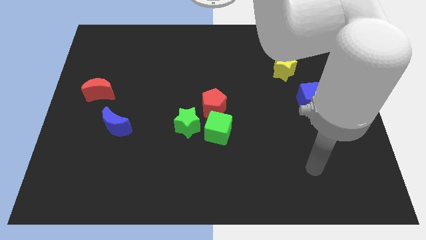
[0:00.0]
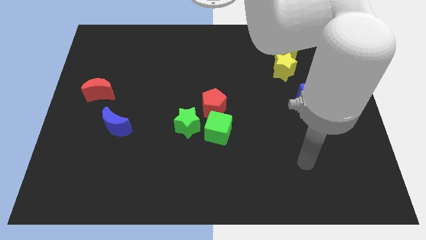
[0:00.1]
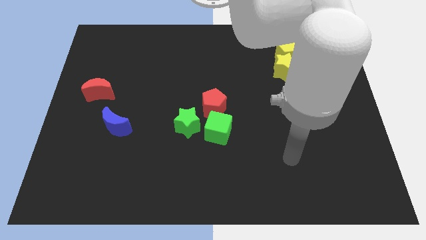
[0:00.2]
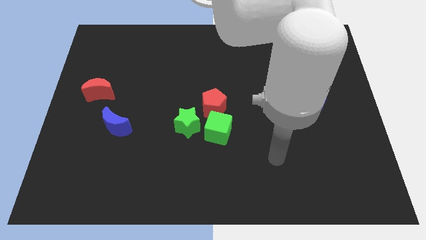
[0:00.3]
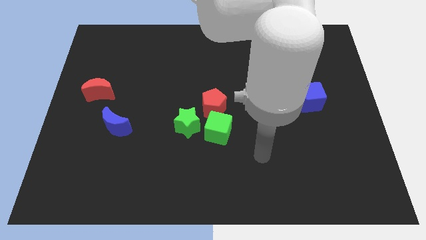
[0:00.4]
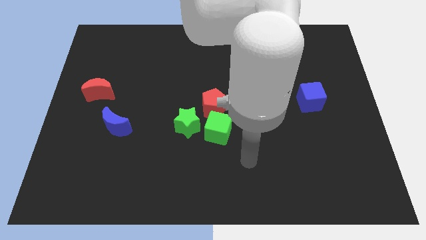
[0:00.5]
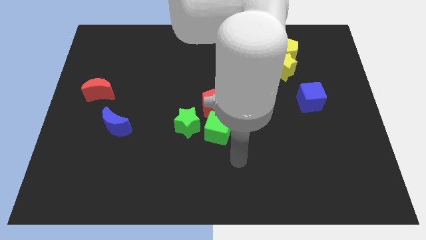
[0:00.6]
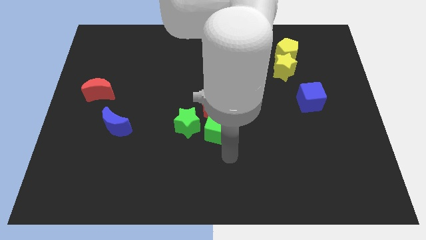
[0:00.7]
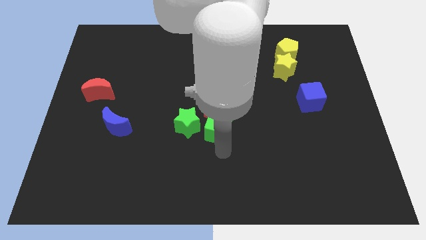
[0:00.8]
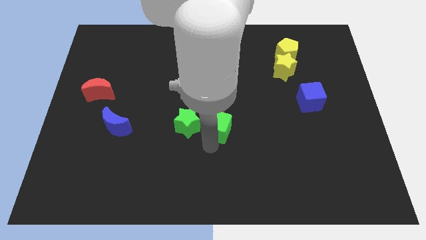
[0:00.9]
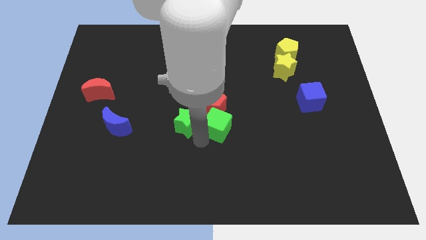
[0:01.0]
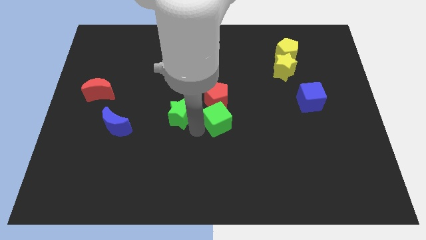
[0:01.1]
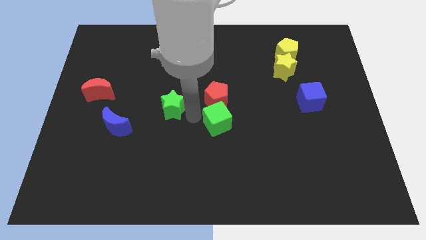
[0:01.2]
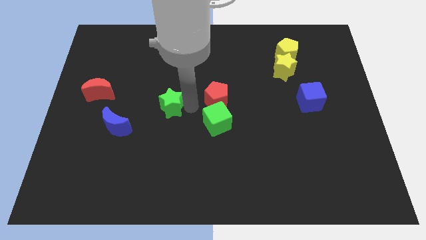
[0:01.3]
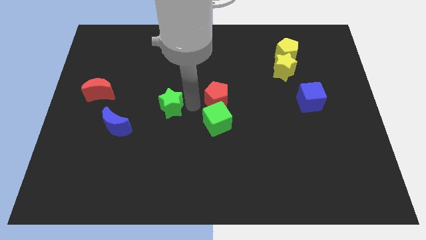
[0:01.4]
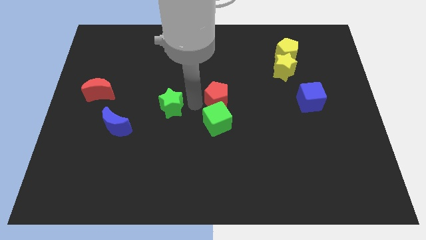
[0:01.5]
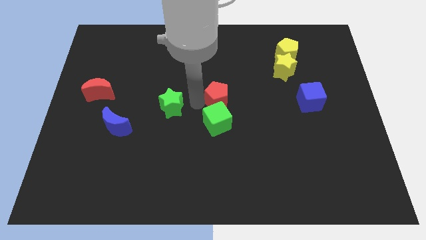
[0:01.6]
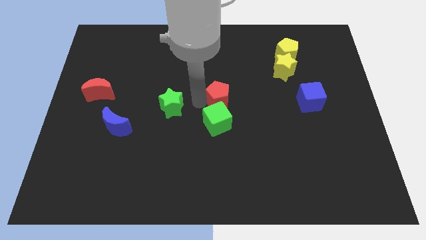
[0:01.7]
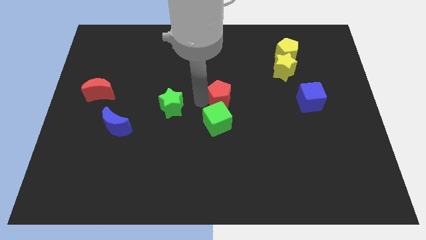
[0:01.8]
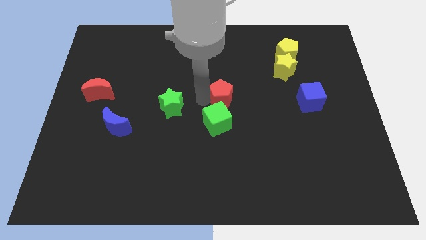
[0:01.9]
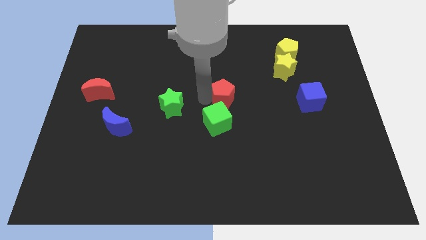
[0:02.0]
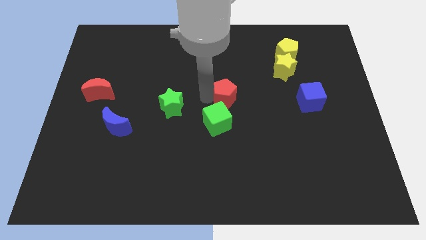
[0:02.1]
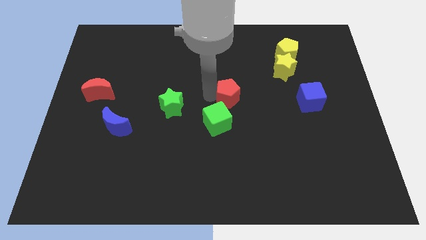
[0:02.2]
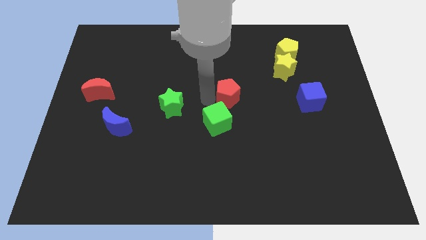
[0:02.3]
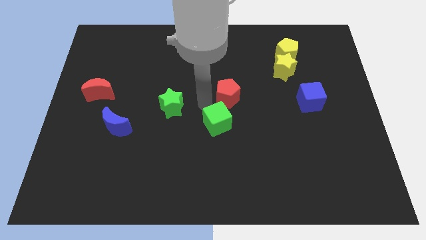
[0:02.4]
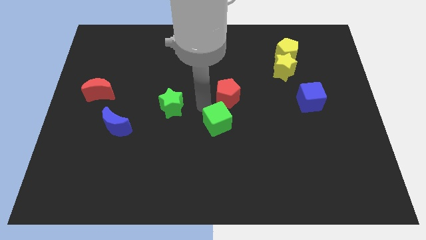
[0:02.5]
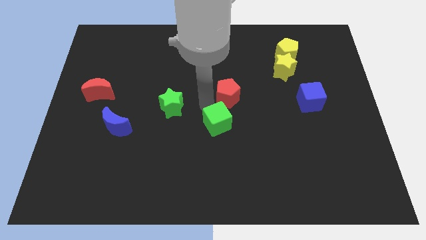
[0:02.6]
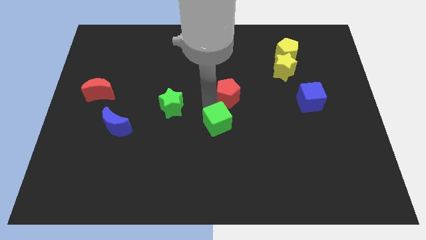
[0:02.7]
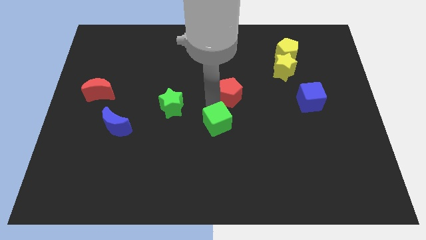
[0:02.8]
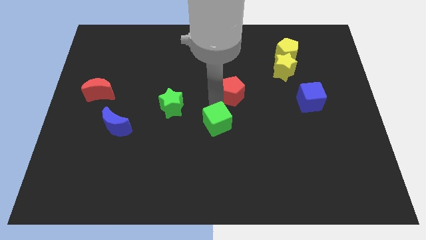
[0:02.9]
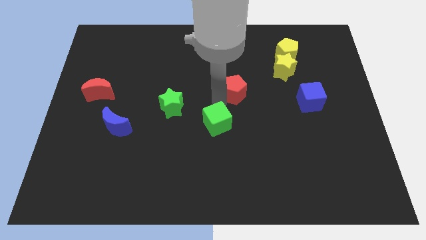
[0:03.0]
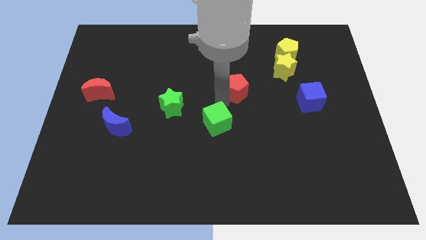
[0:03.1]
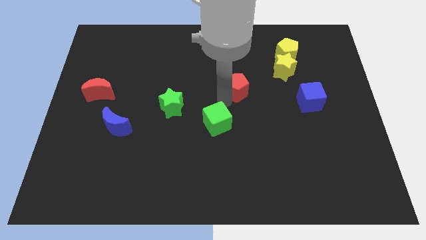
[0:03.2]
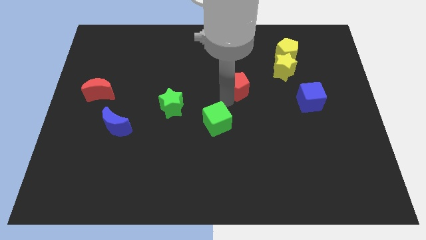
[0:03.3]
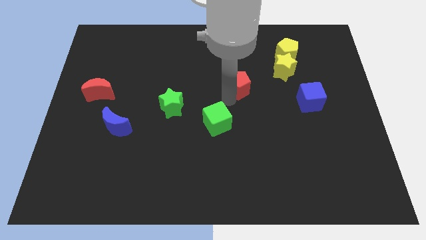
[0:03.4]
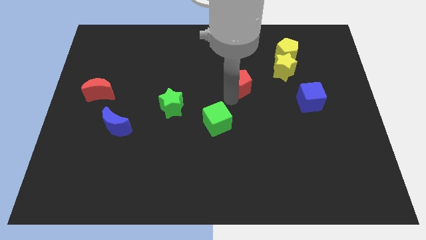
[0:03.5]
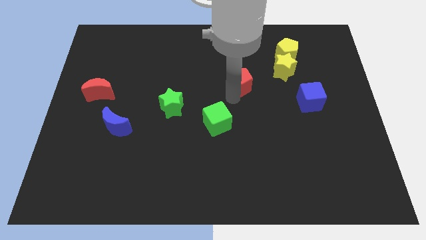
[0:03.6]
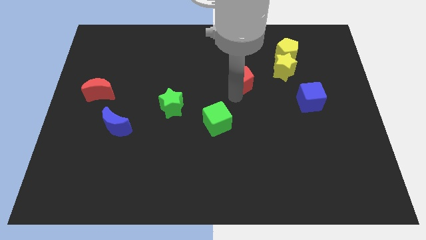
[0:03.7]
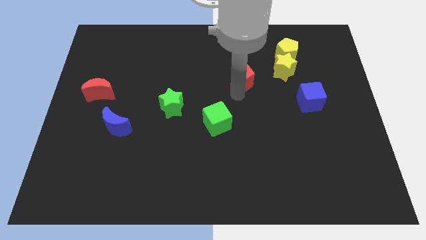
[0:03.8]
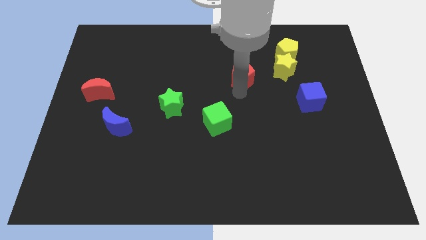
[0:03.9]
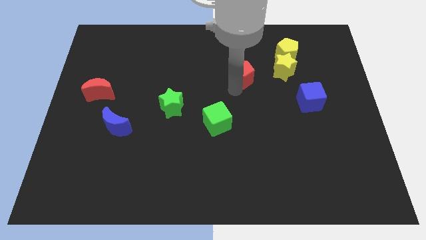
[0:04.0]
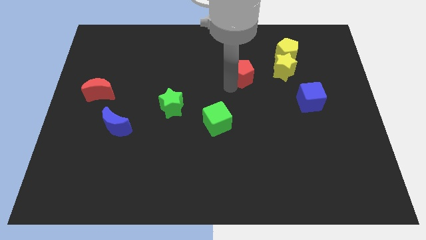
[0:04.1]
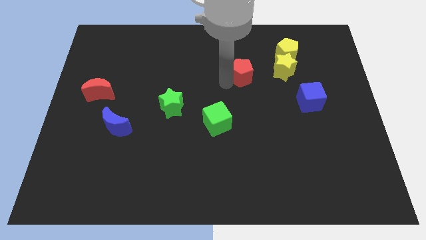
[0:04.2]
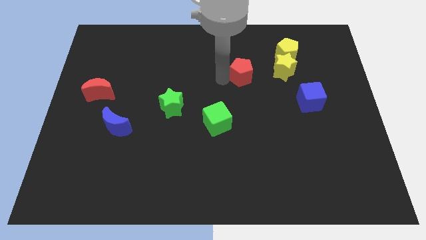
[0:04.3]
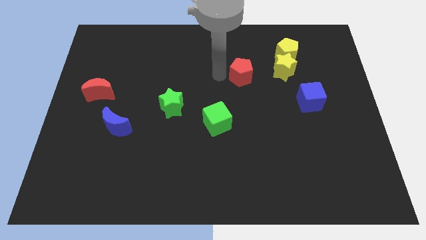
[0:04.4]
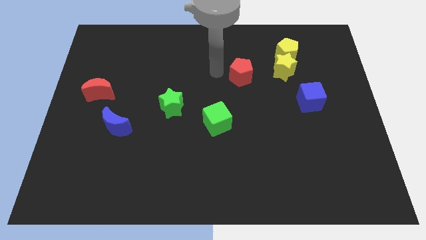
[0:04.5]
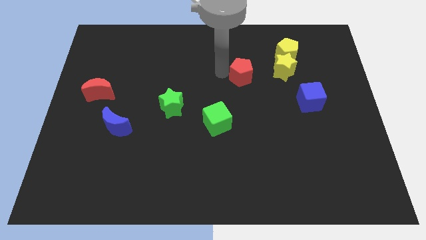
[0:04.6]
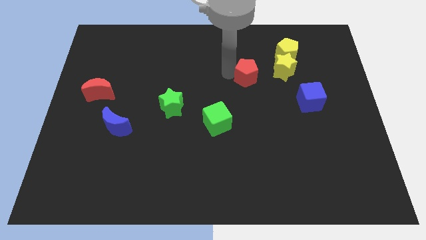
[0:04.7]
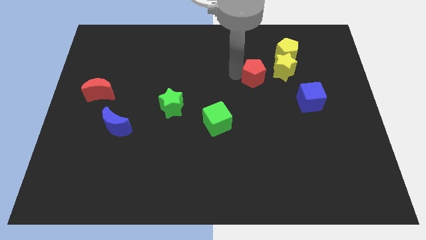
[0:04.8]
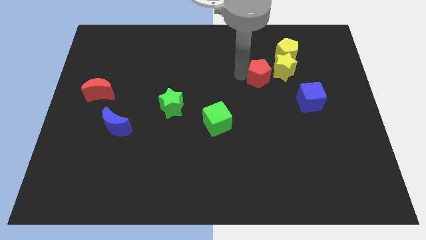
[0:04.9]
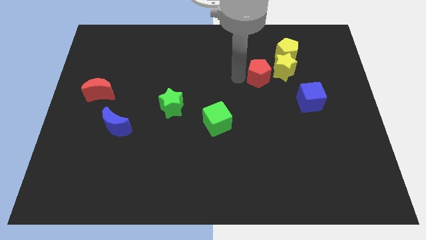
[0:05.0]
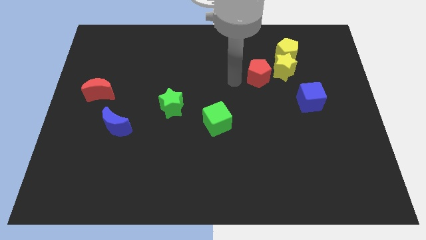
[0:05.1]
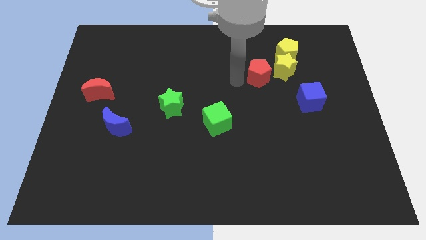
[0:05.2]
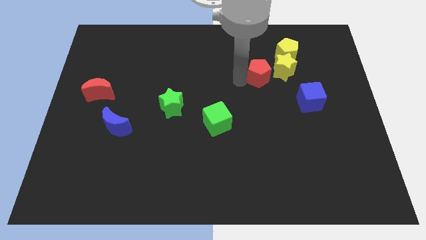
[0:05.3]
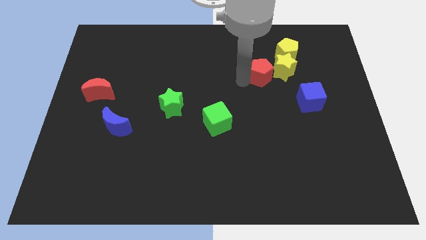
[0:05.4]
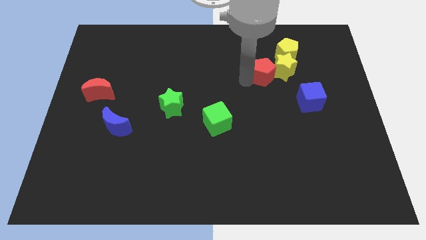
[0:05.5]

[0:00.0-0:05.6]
slide the red pentagon next to the yellow star

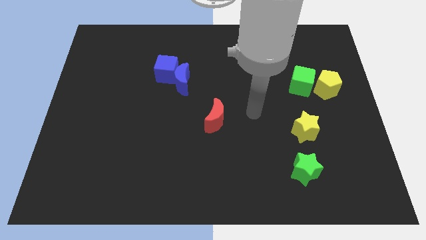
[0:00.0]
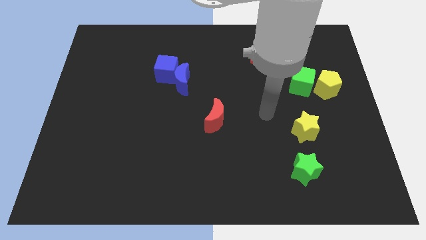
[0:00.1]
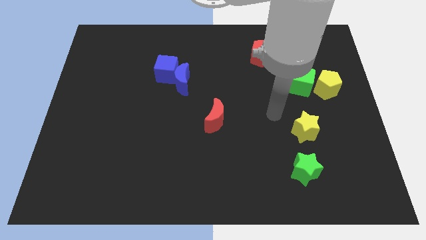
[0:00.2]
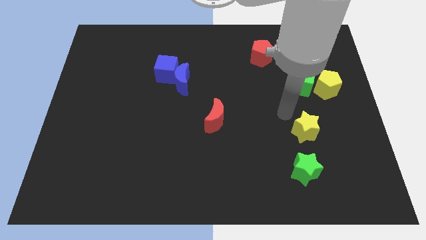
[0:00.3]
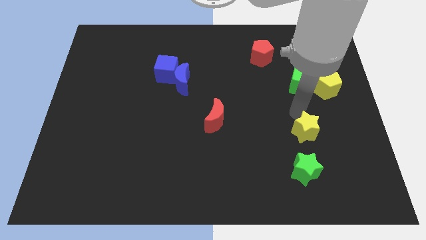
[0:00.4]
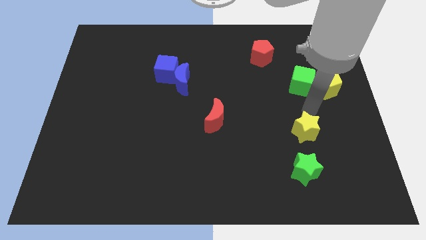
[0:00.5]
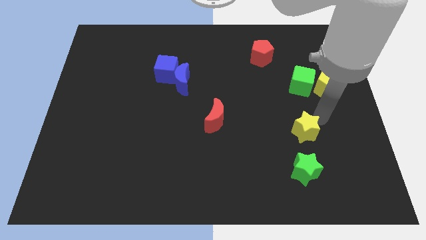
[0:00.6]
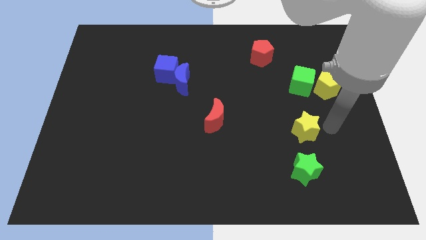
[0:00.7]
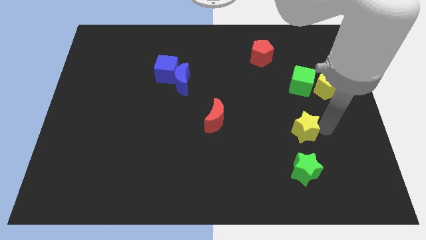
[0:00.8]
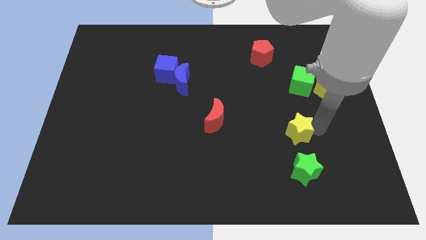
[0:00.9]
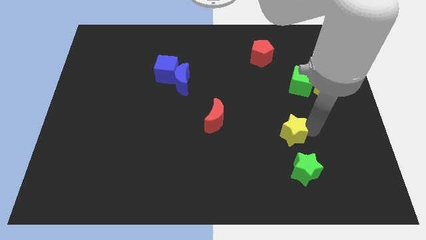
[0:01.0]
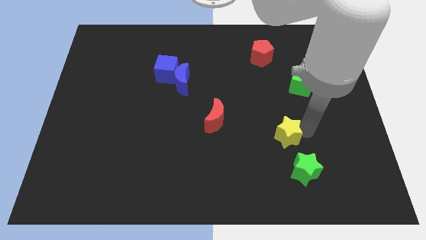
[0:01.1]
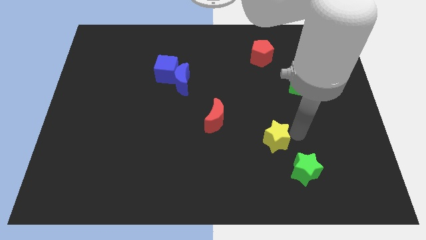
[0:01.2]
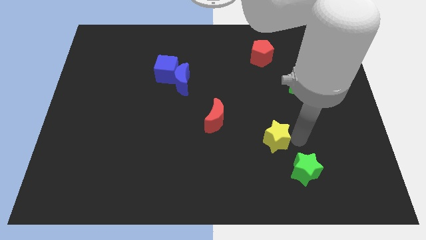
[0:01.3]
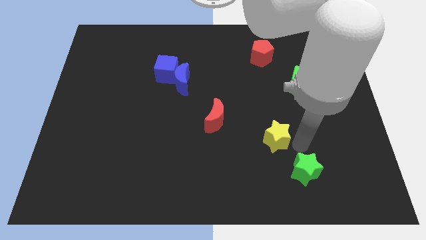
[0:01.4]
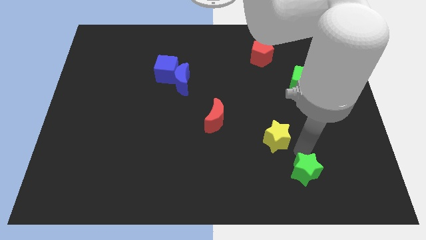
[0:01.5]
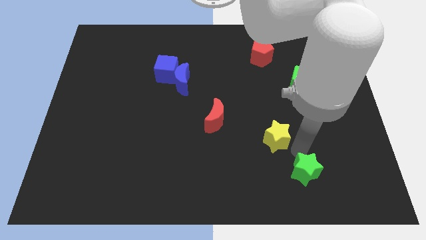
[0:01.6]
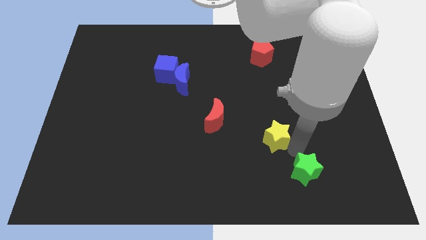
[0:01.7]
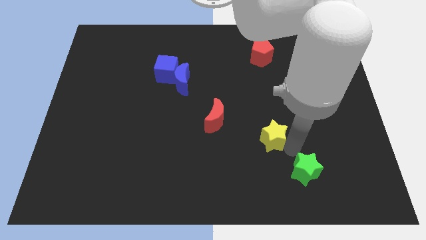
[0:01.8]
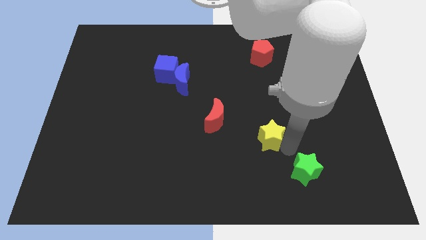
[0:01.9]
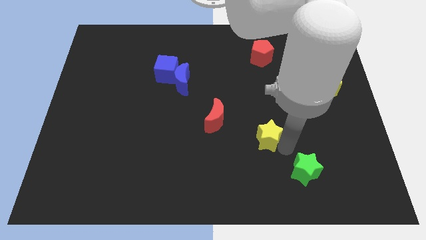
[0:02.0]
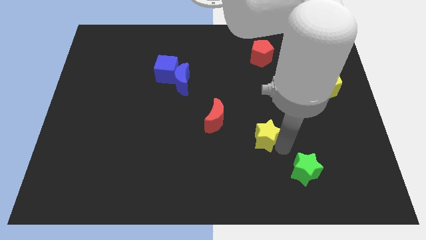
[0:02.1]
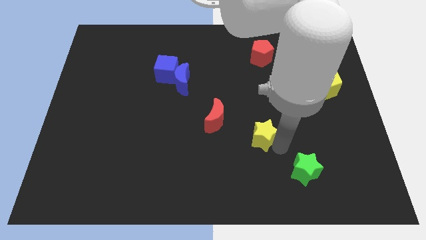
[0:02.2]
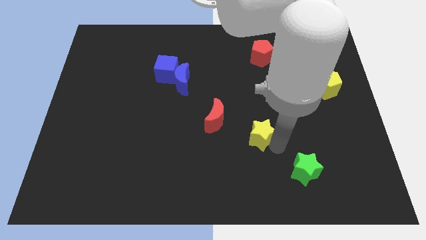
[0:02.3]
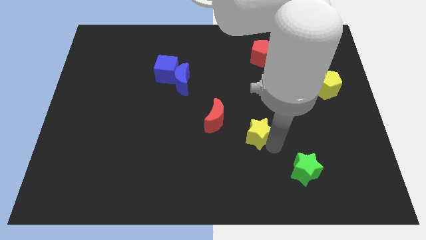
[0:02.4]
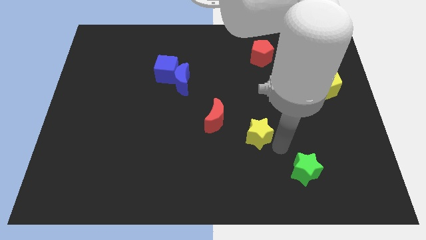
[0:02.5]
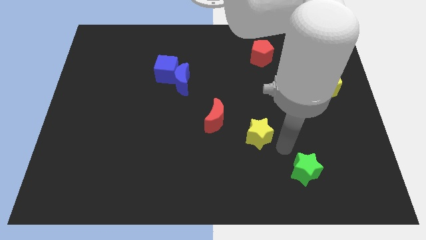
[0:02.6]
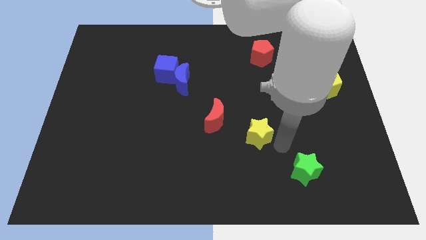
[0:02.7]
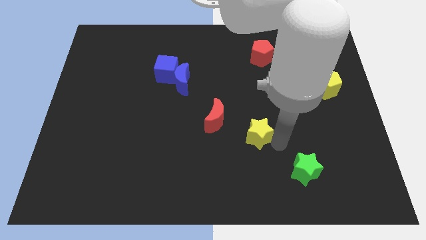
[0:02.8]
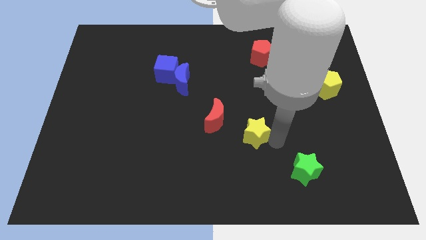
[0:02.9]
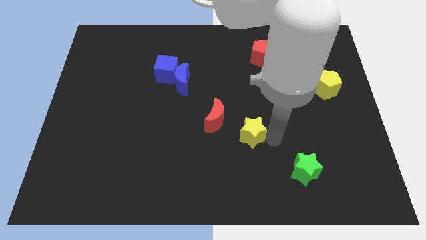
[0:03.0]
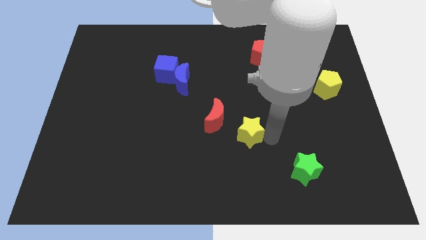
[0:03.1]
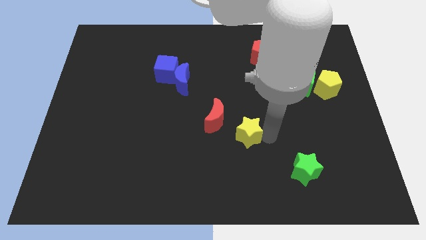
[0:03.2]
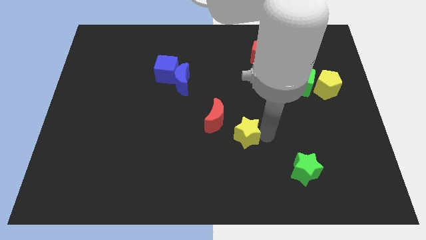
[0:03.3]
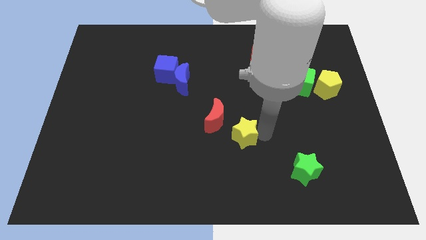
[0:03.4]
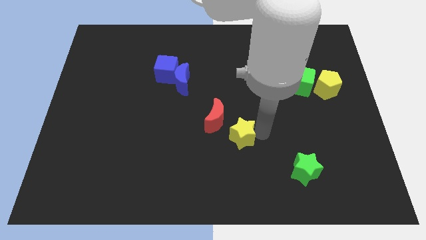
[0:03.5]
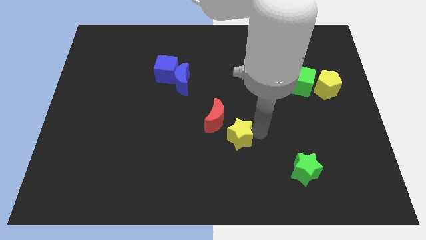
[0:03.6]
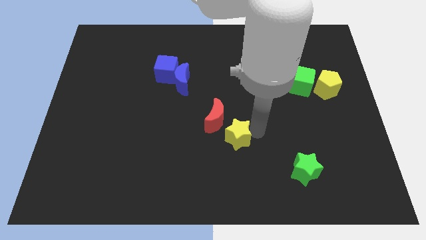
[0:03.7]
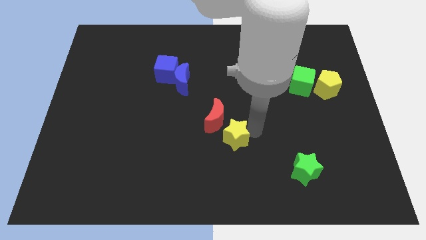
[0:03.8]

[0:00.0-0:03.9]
slide the yellow star next to the red moon
